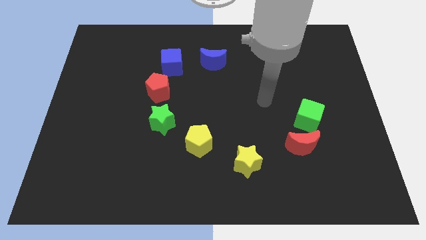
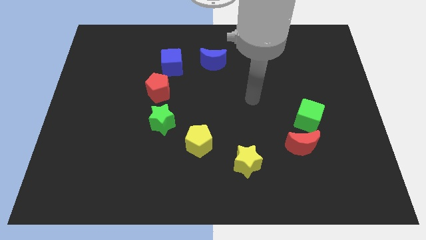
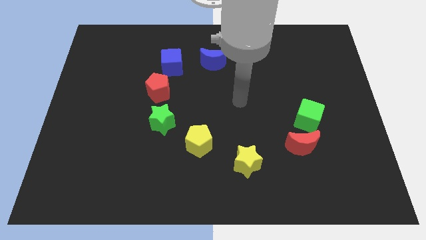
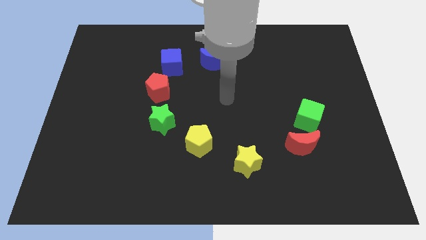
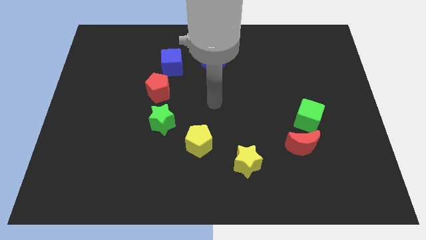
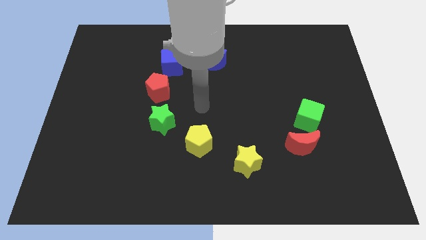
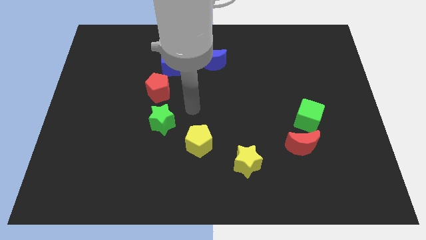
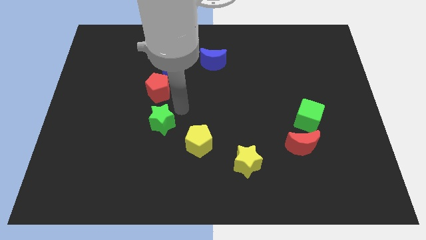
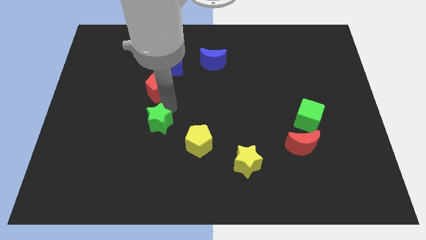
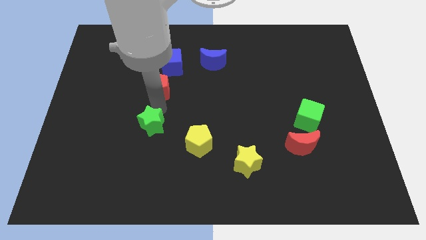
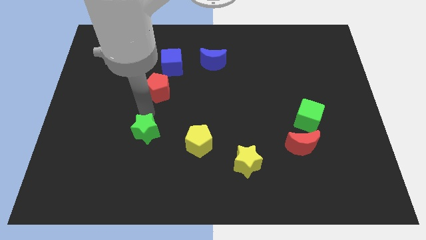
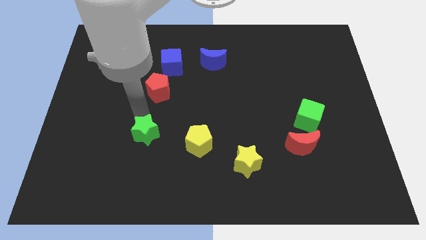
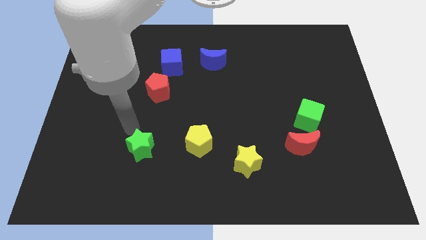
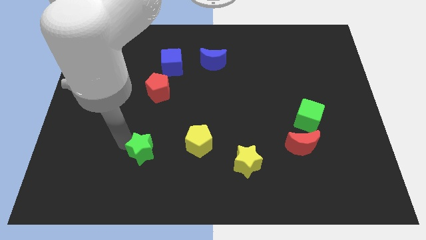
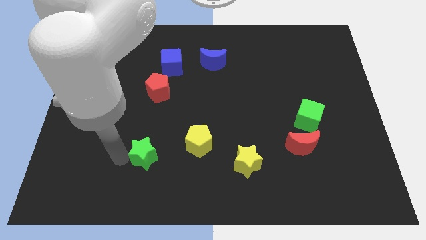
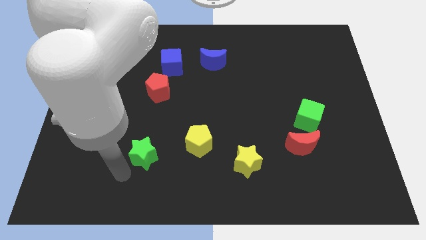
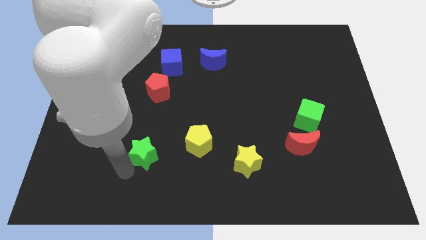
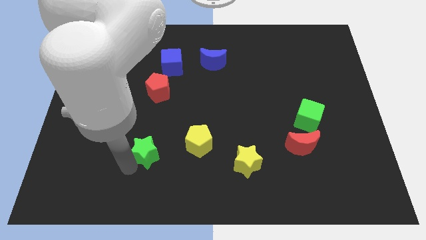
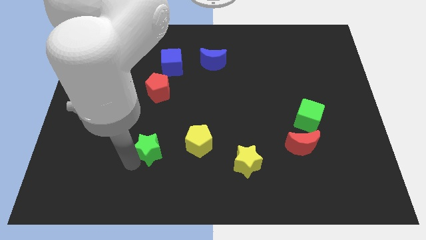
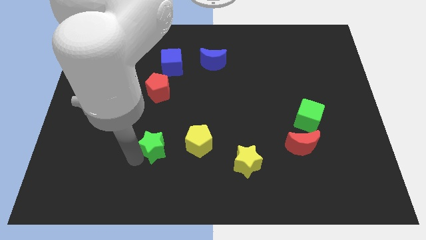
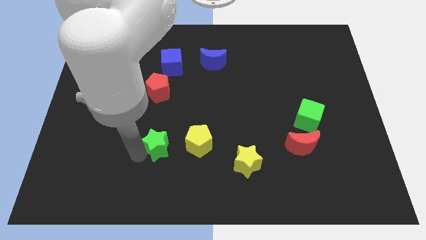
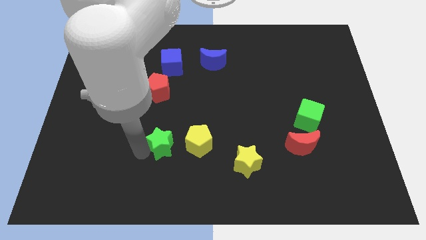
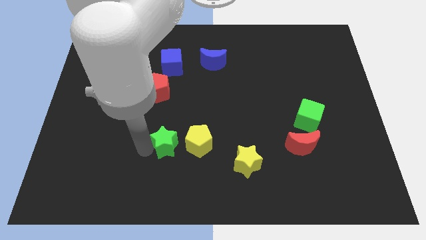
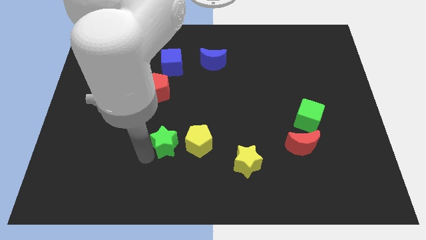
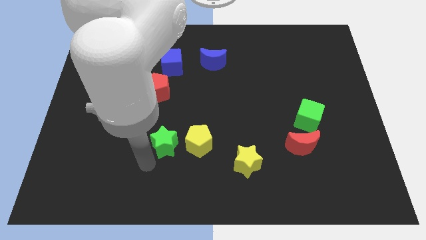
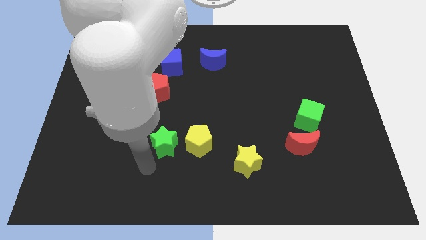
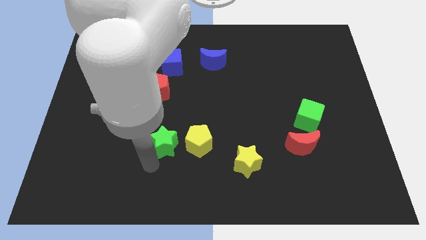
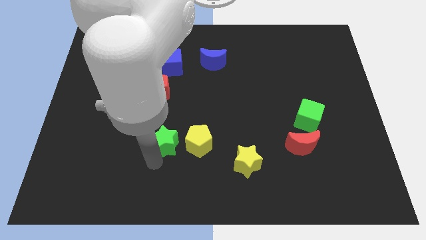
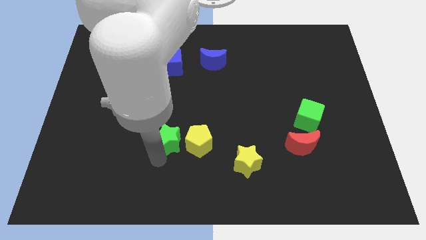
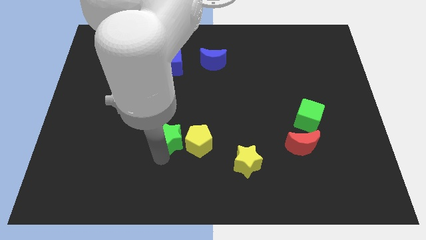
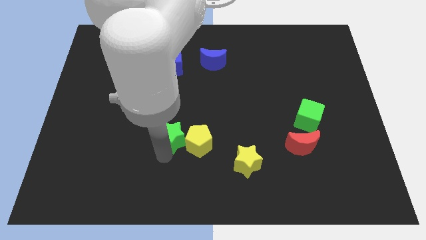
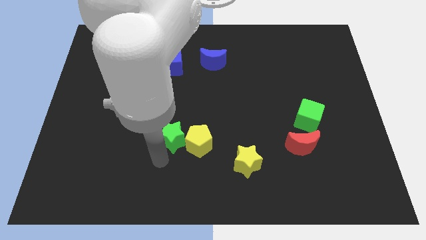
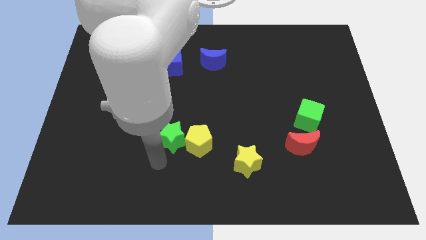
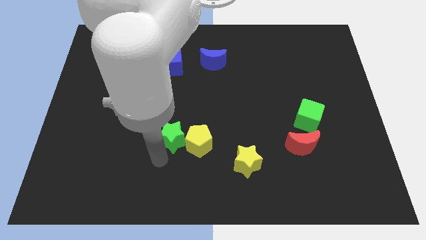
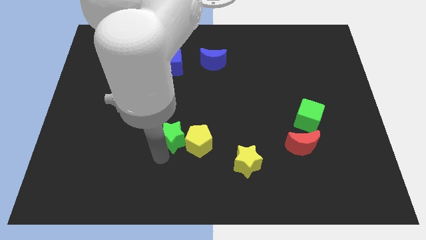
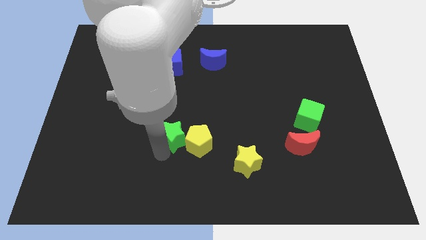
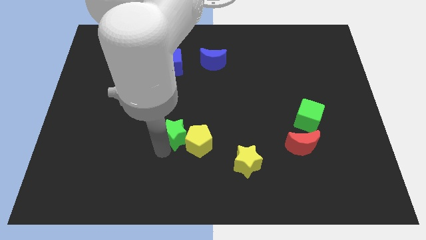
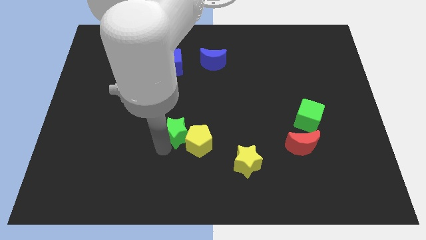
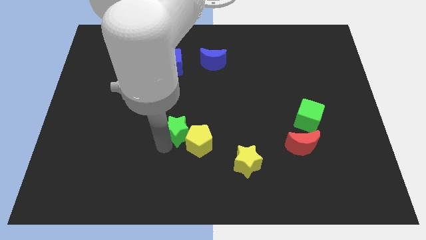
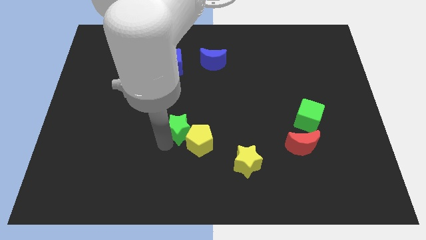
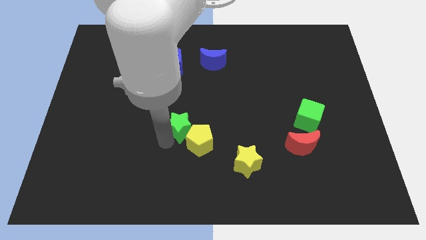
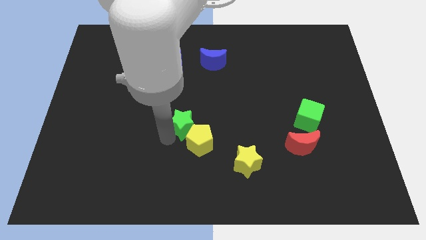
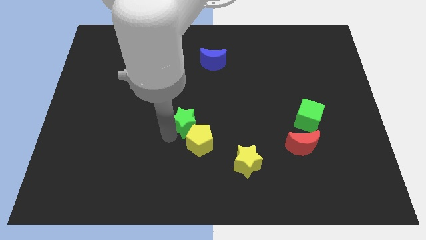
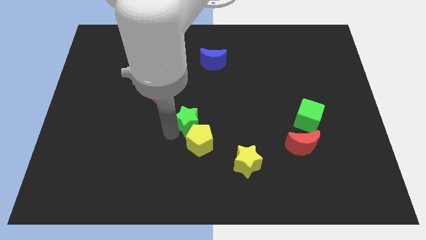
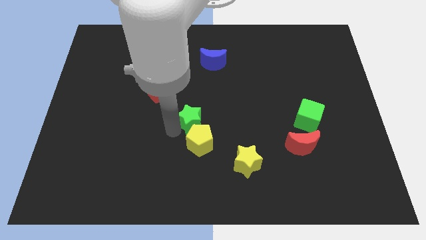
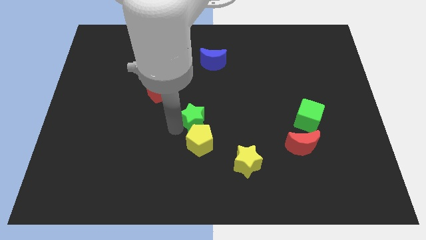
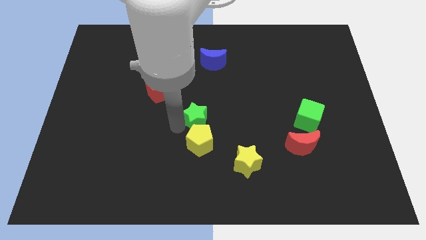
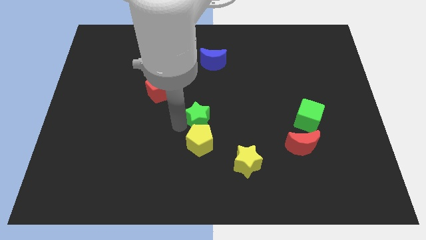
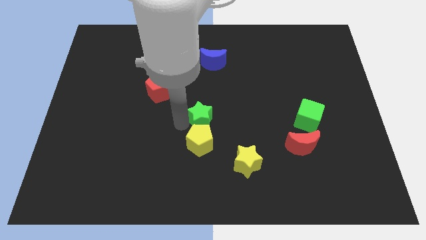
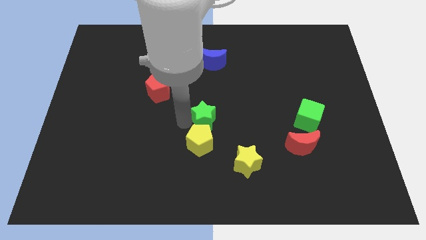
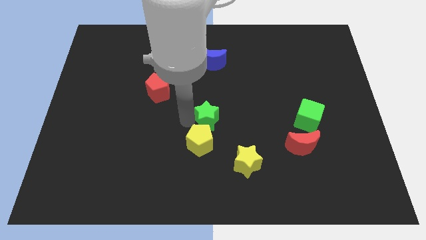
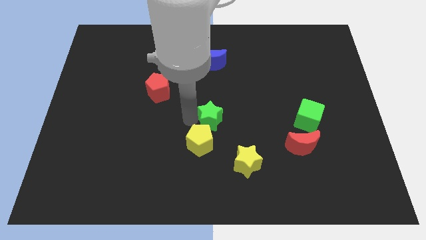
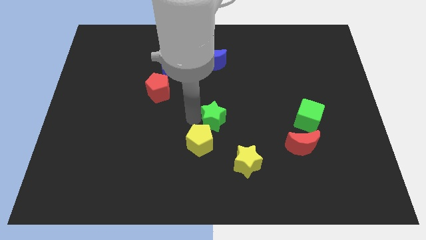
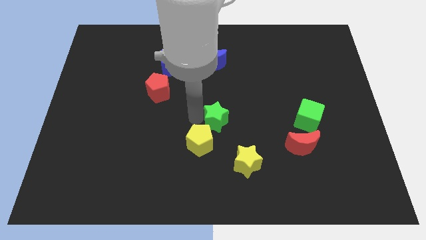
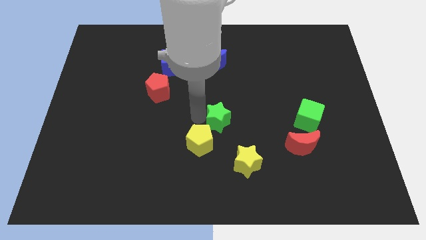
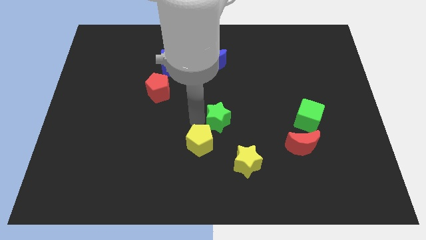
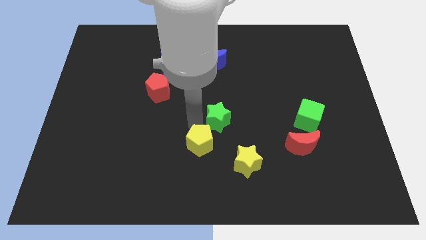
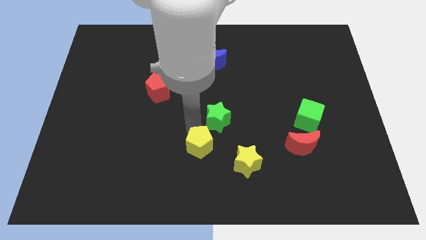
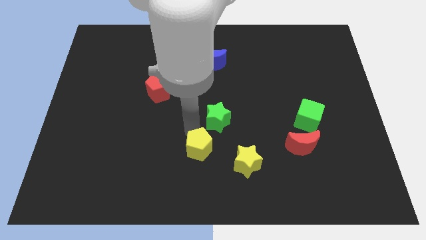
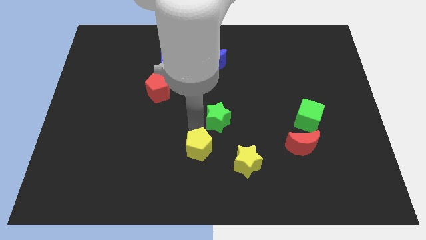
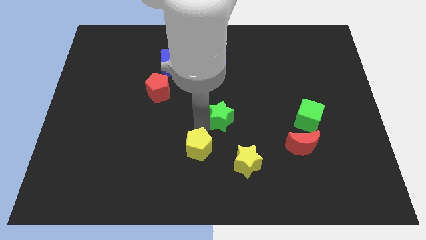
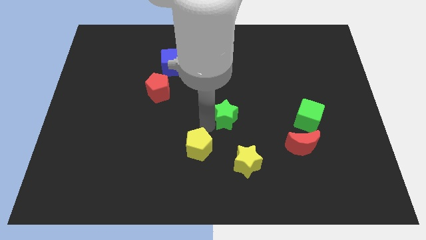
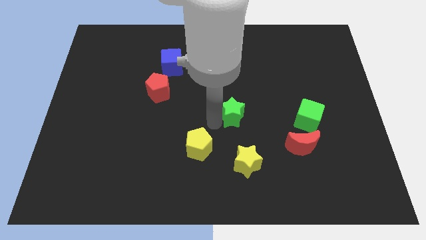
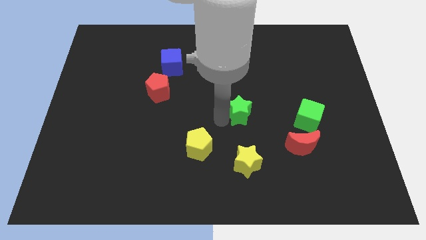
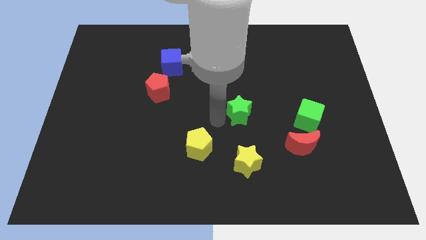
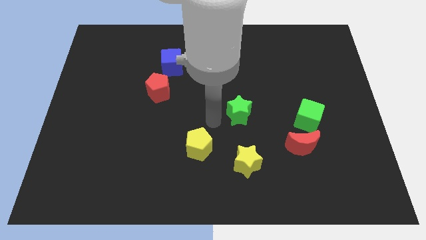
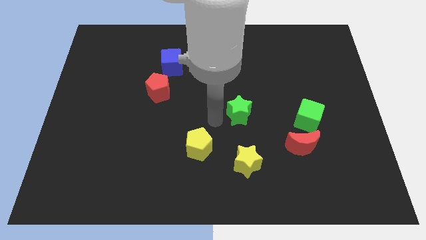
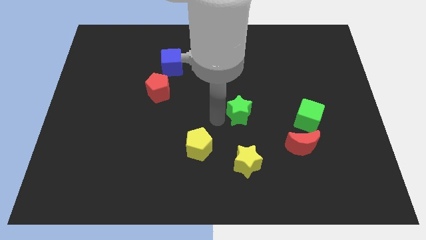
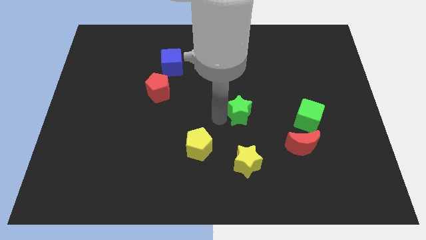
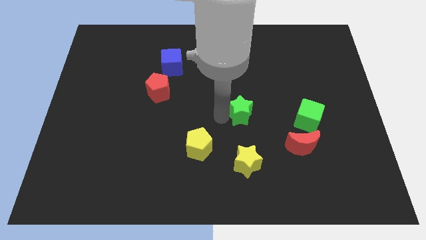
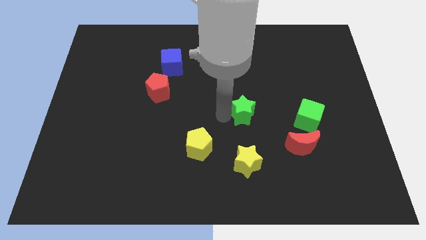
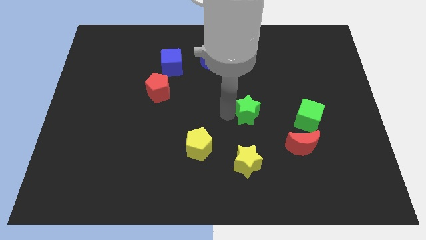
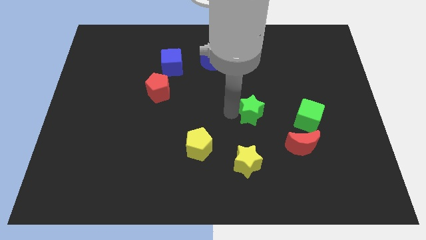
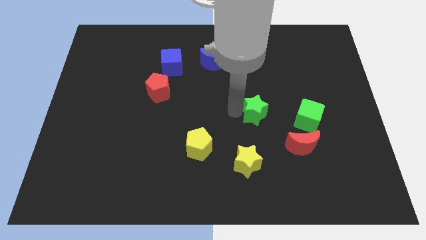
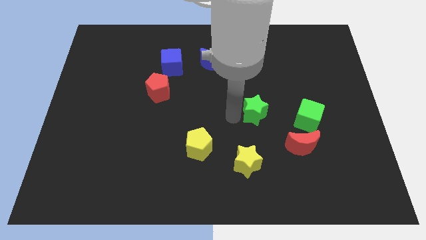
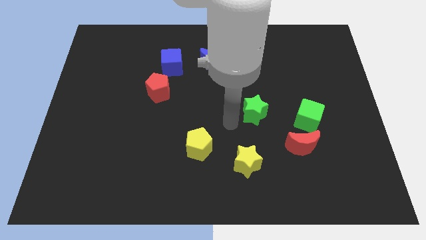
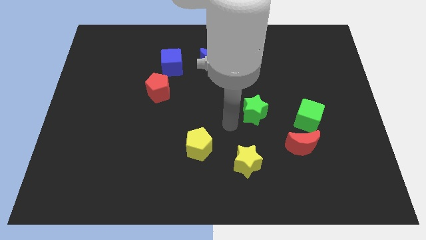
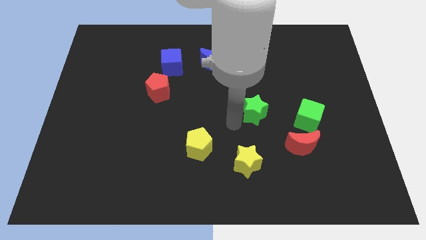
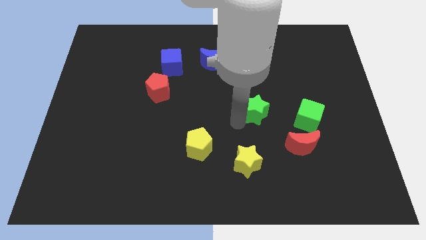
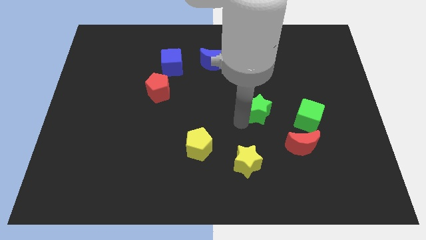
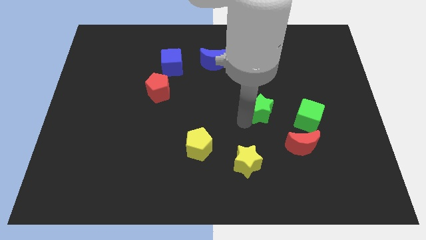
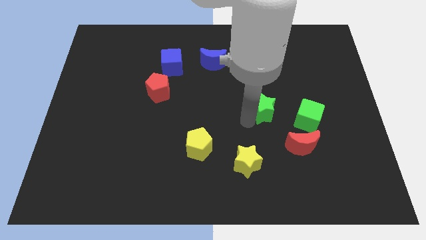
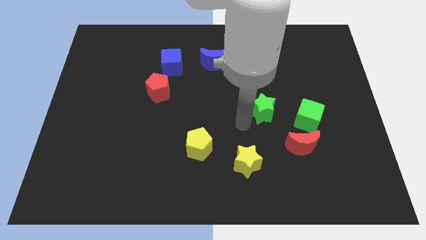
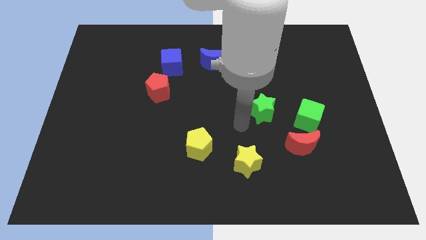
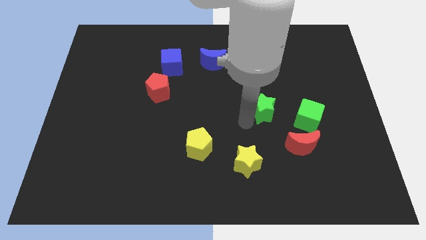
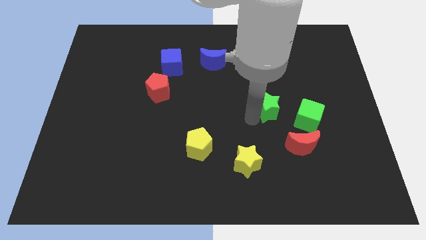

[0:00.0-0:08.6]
slide the green star to the top left side of the green cube
